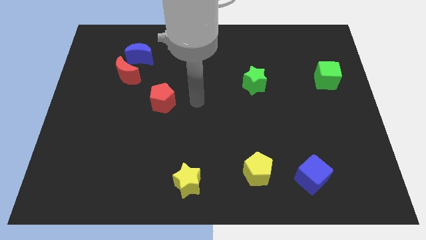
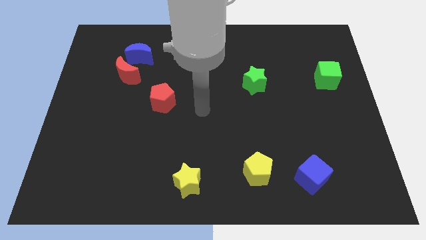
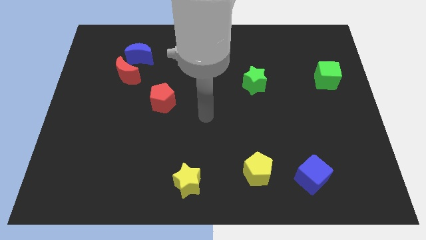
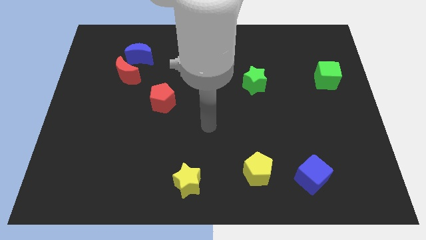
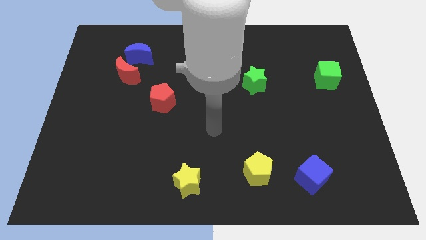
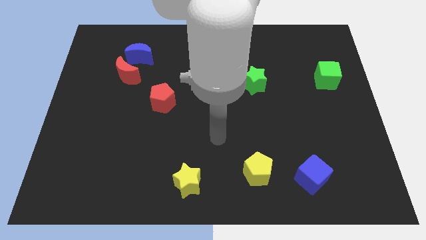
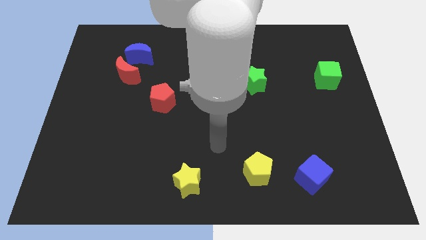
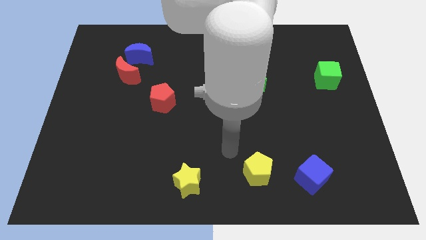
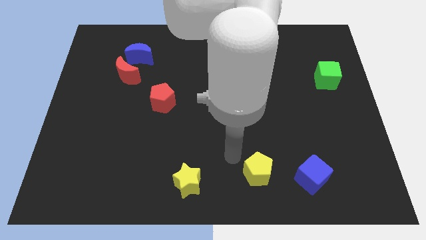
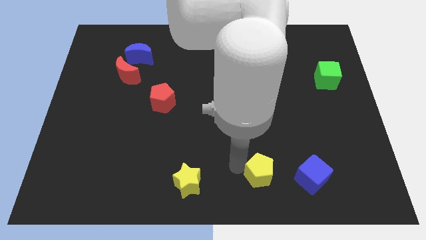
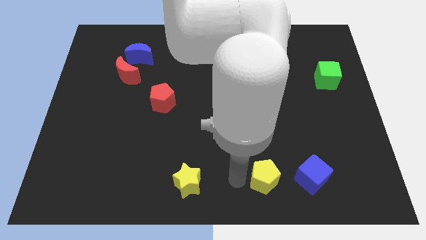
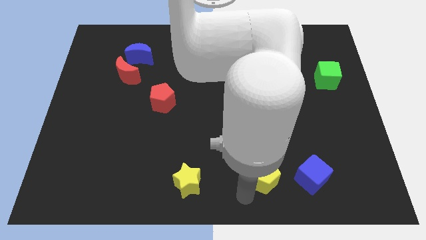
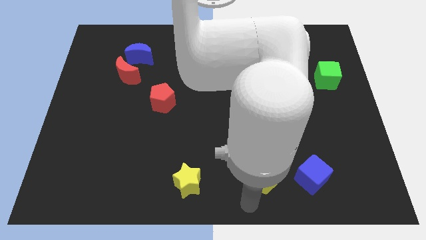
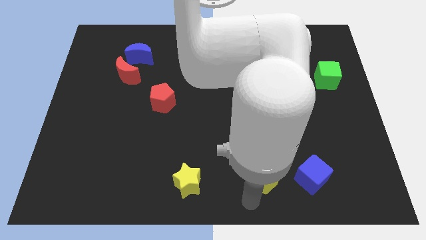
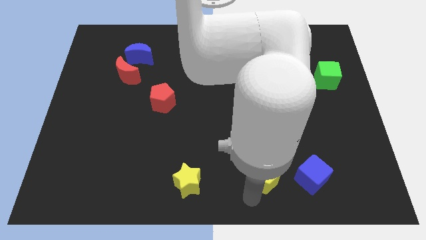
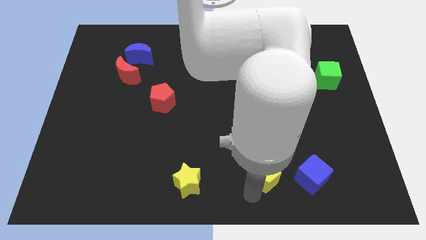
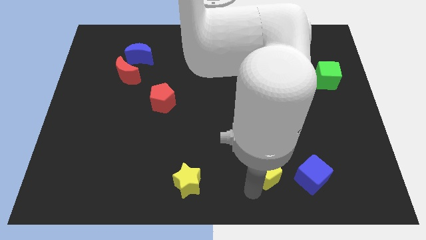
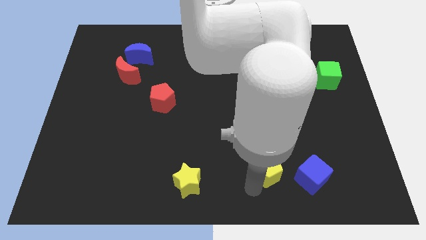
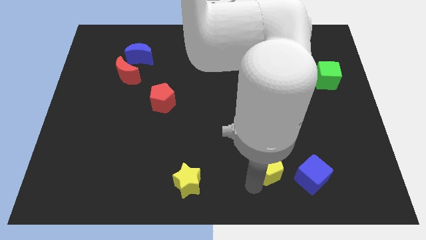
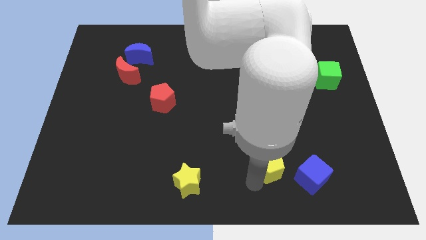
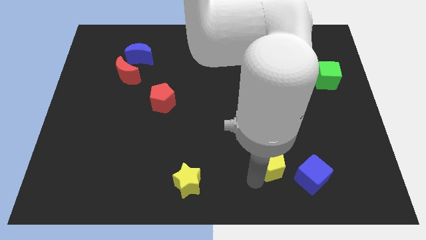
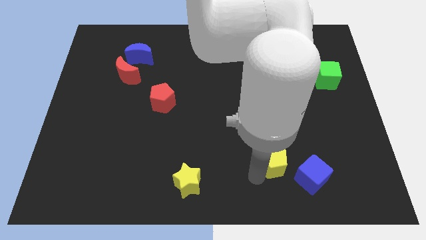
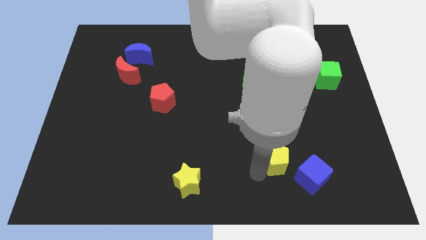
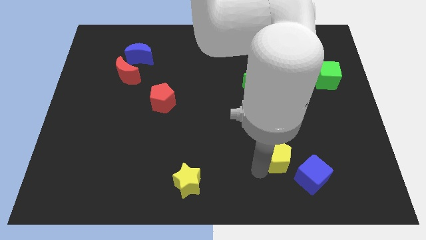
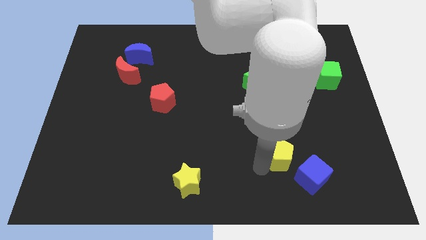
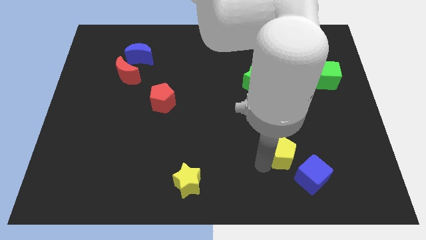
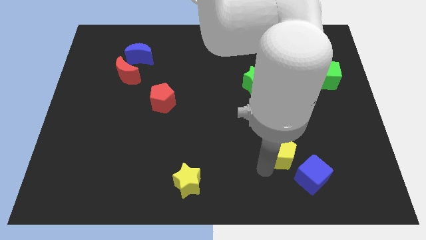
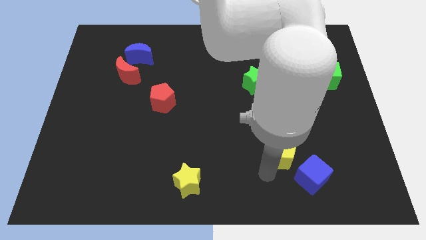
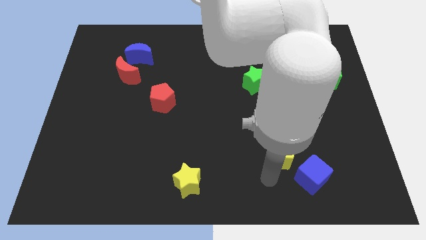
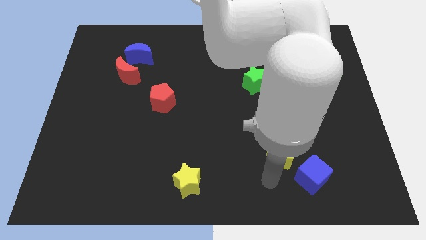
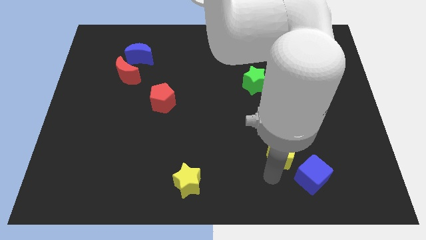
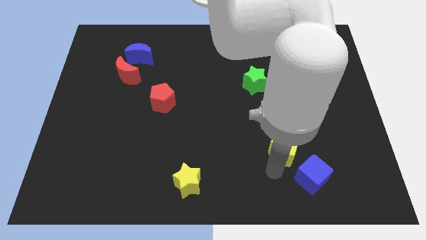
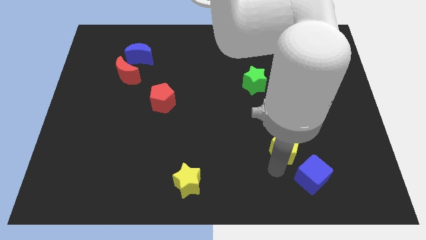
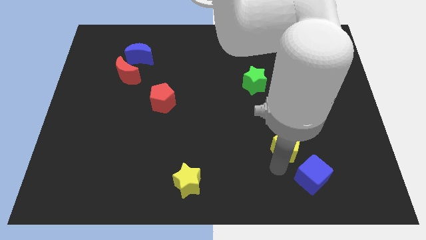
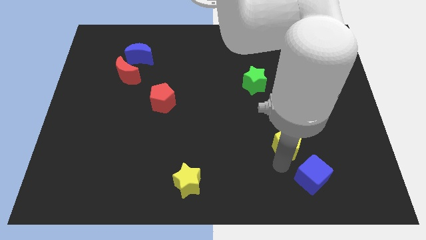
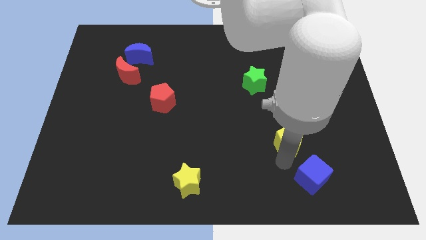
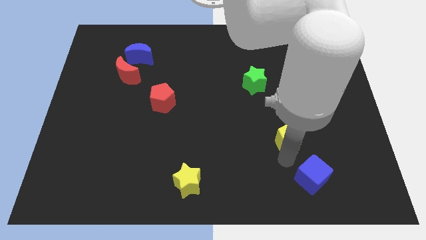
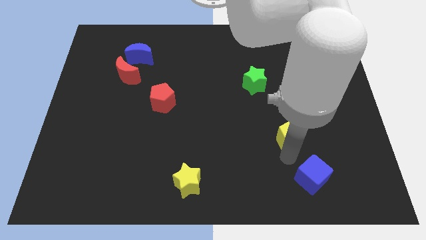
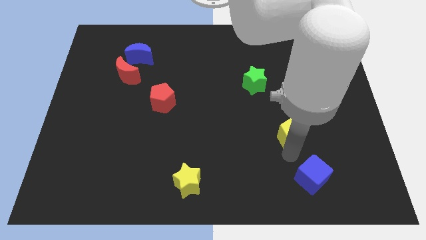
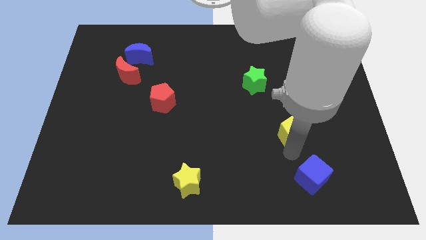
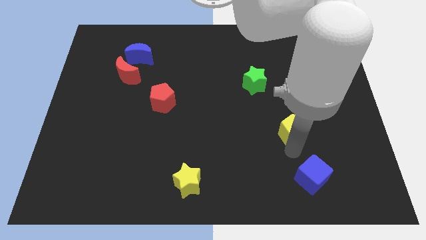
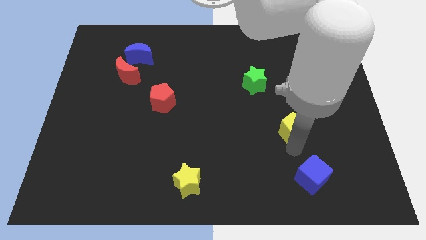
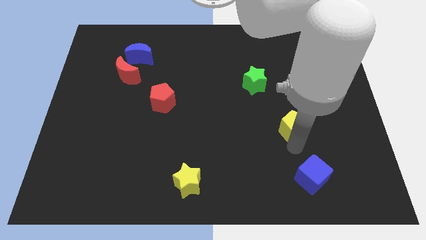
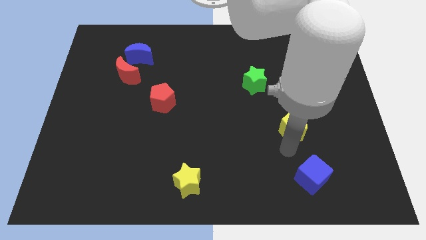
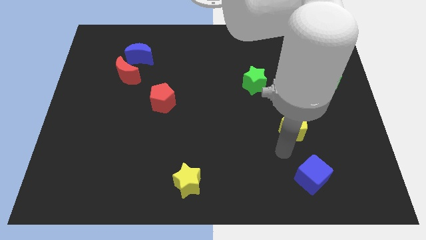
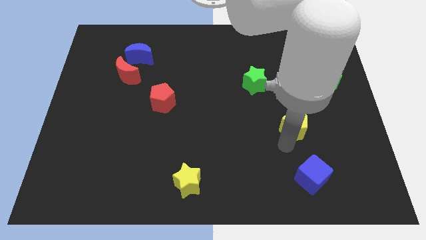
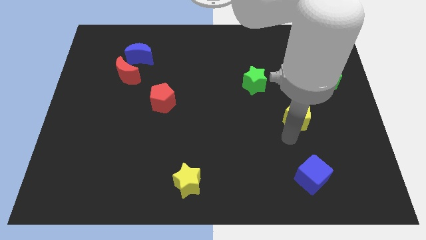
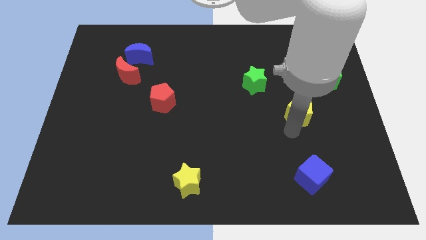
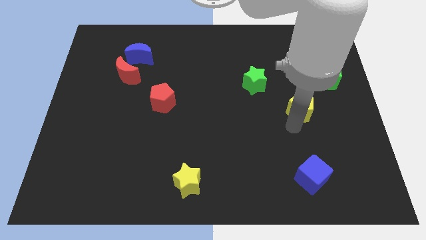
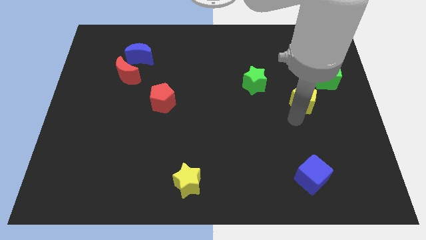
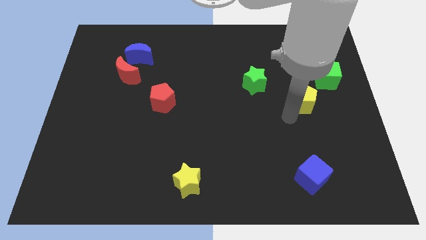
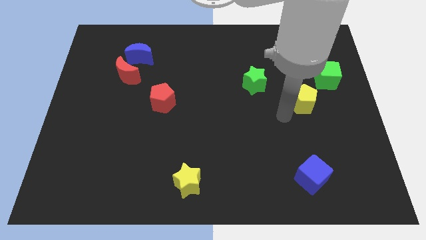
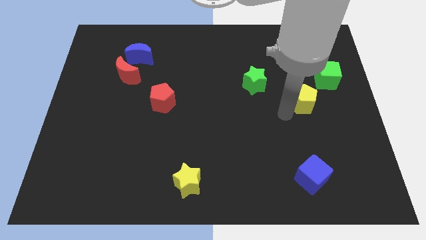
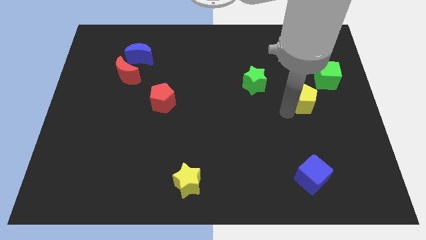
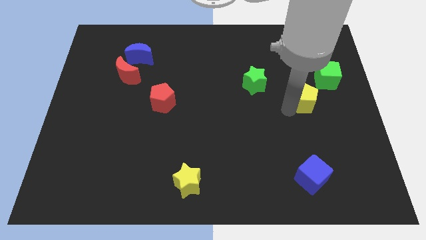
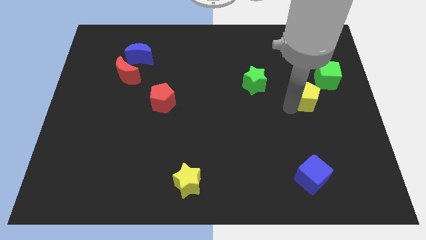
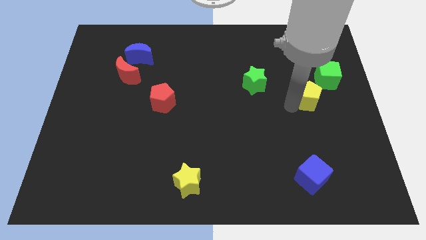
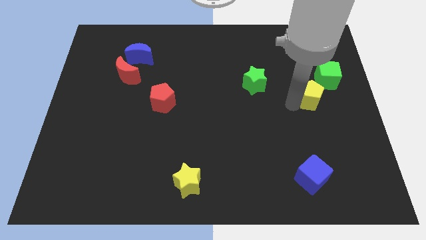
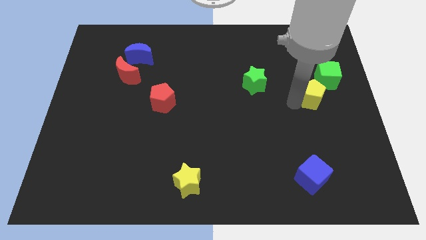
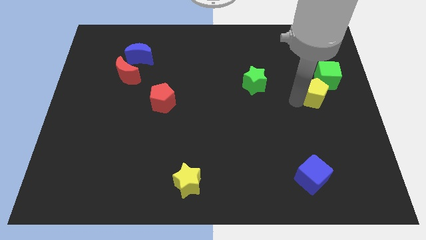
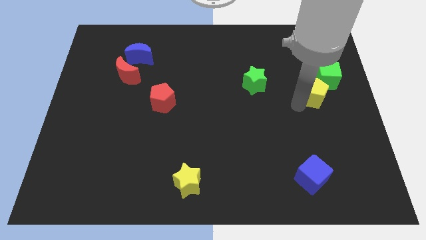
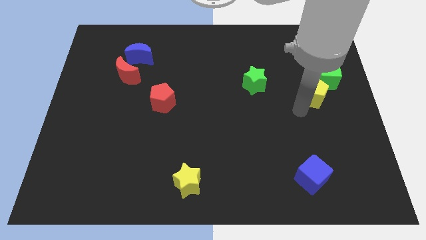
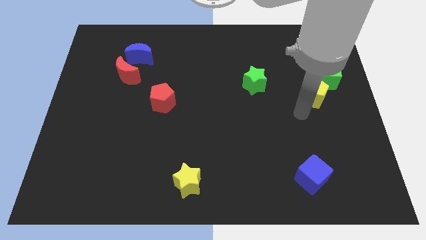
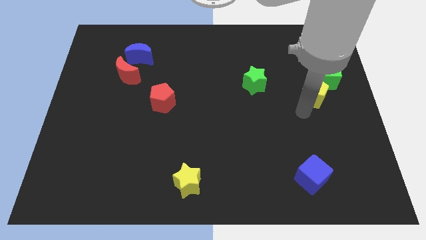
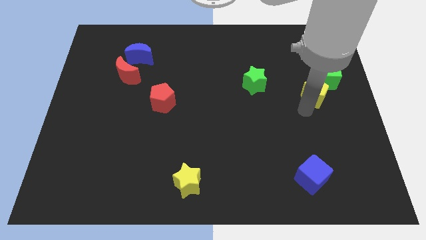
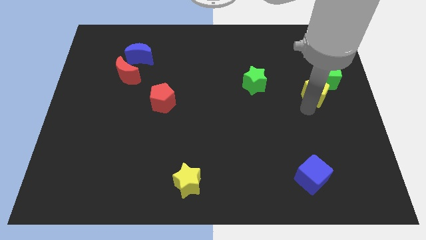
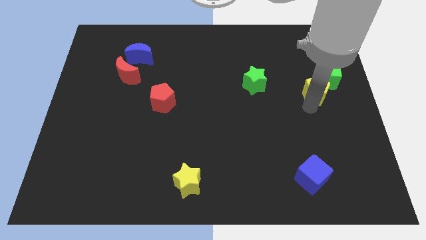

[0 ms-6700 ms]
move the yellow pentagon next to the green cube

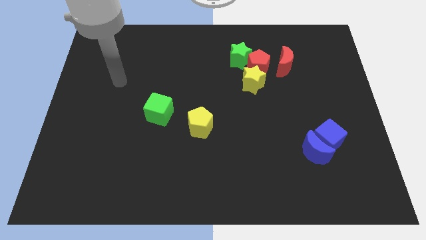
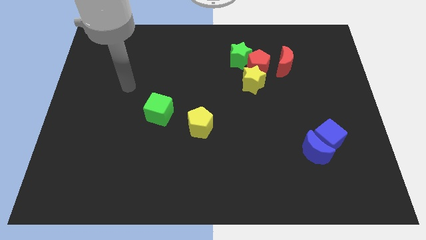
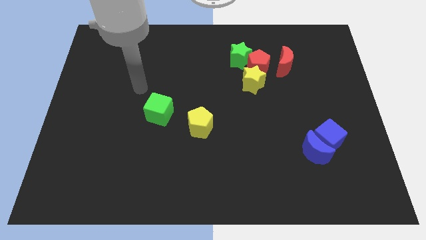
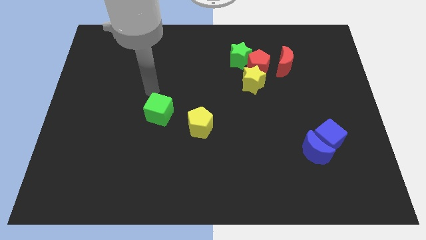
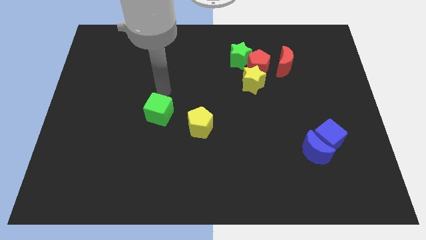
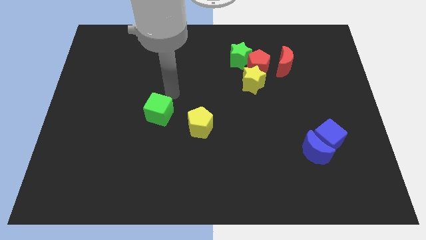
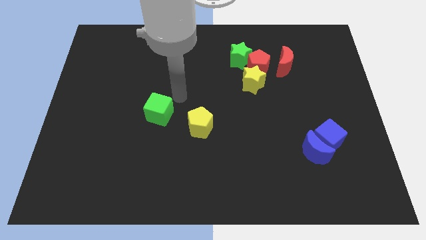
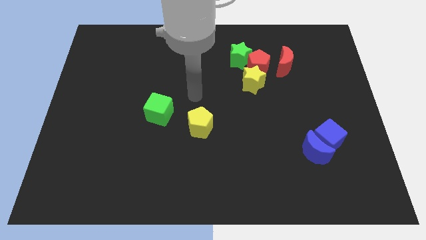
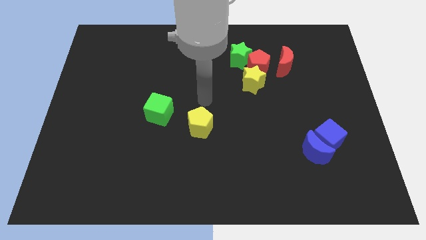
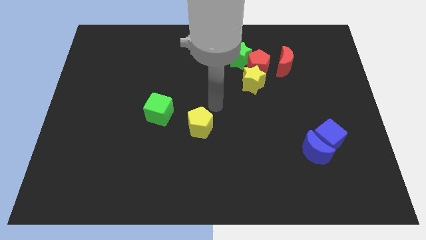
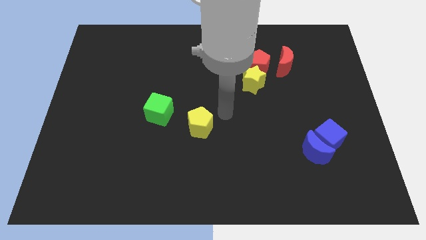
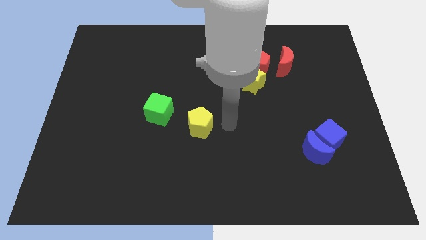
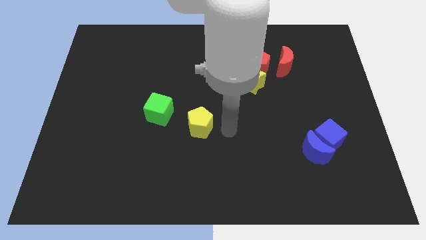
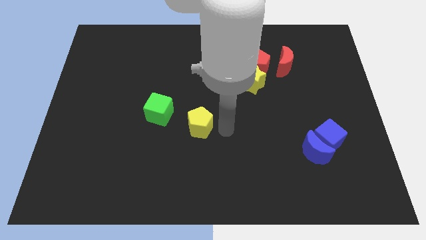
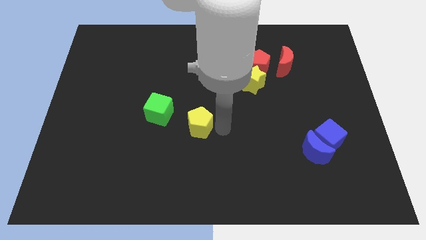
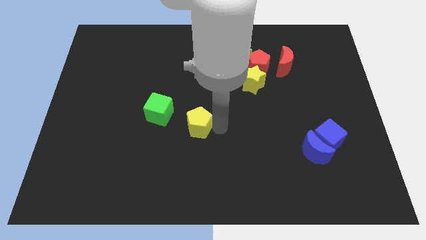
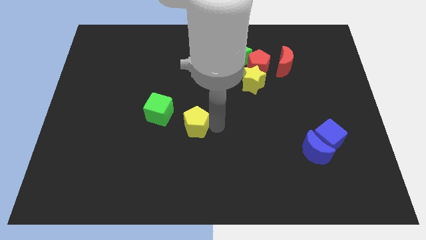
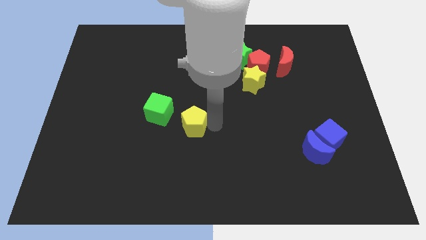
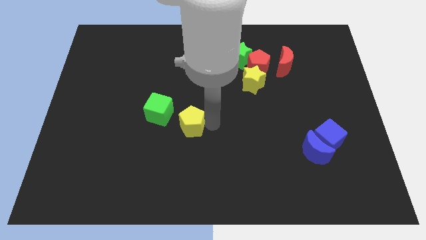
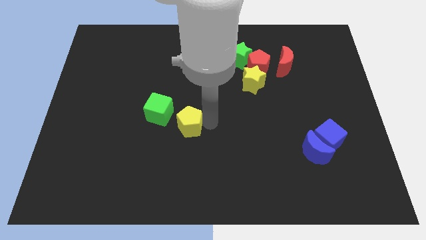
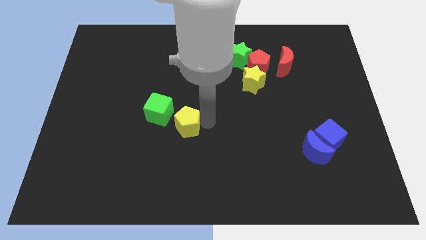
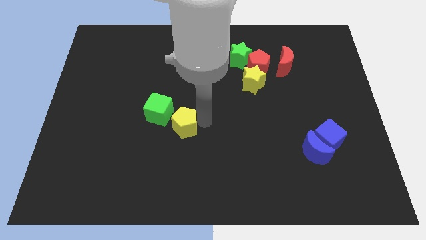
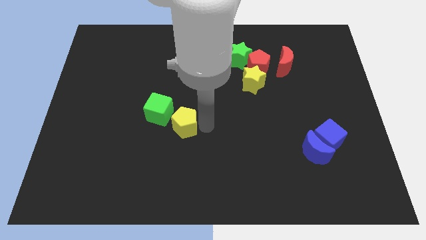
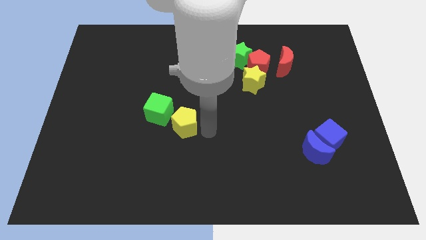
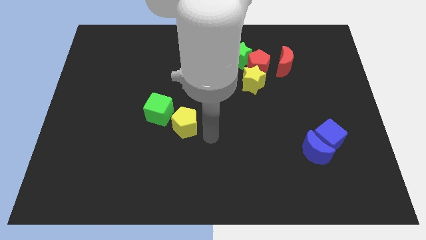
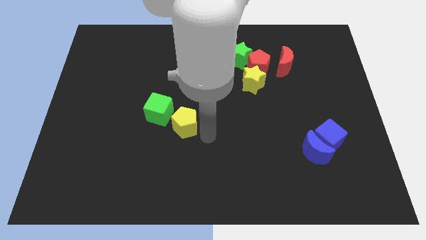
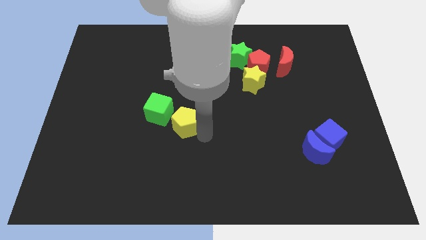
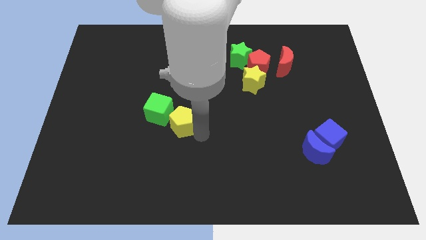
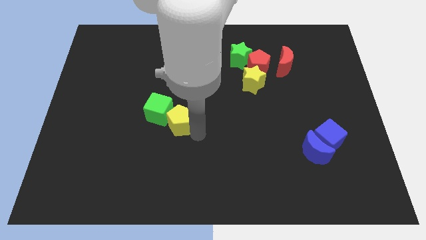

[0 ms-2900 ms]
move the yellow pentagon close to the green cube
